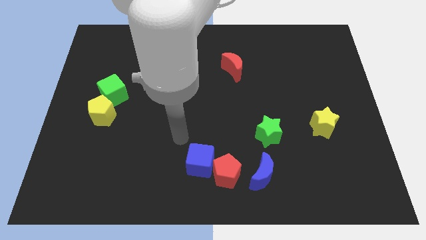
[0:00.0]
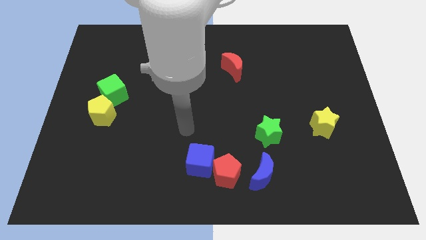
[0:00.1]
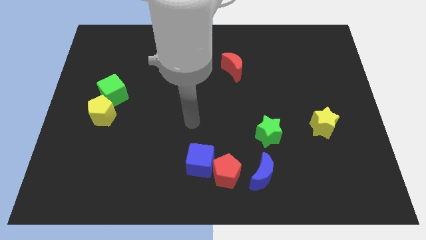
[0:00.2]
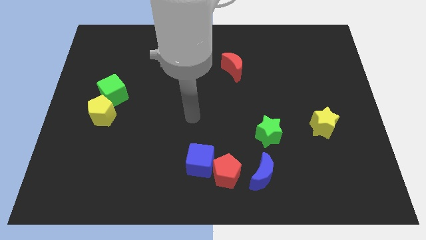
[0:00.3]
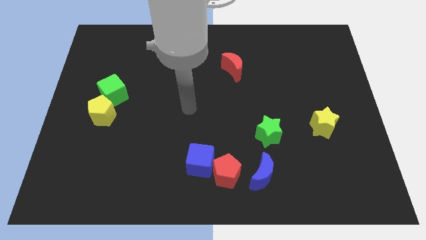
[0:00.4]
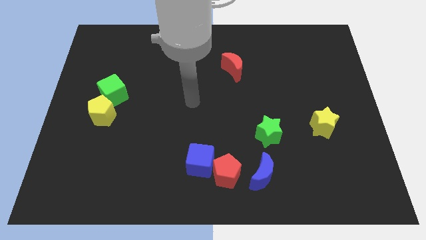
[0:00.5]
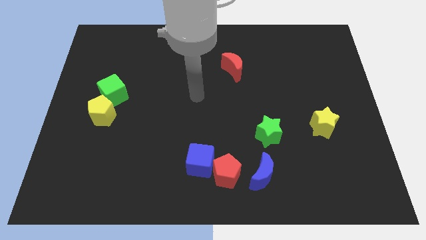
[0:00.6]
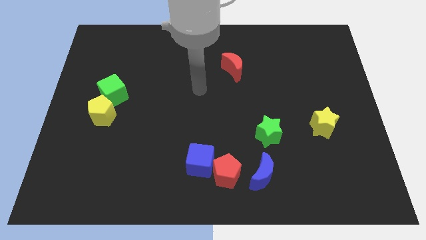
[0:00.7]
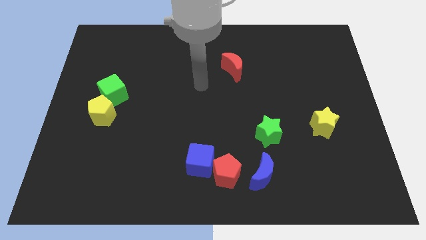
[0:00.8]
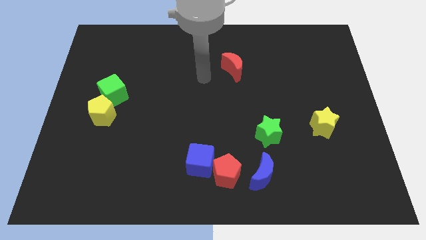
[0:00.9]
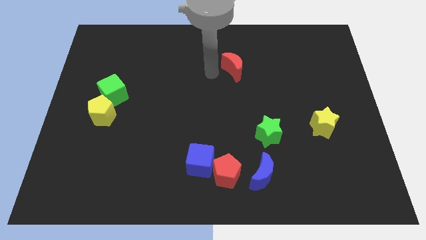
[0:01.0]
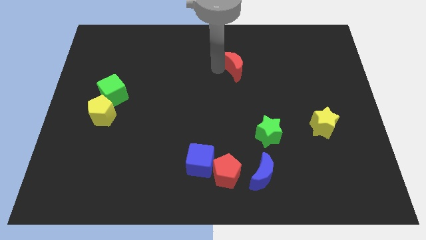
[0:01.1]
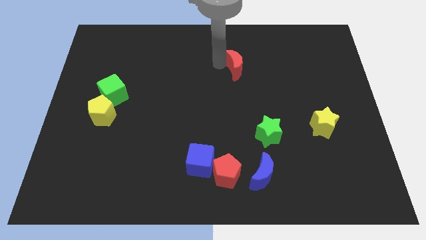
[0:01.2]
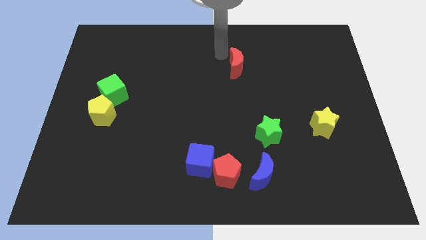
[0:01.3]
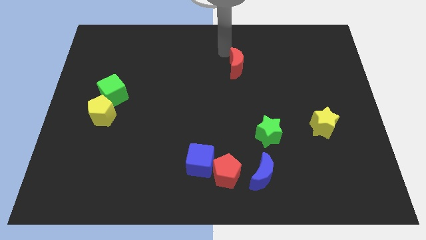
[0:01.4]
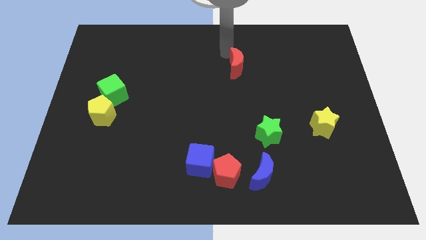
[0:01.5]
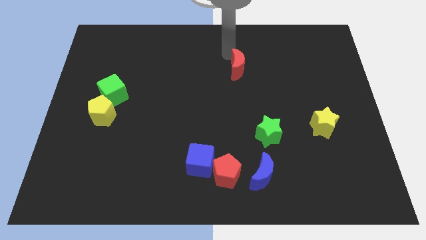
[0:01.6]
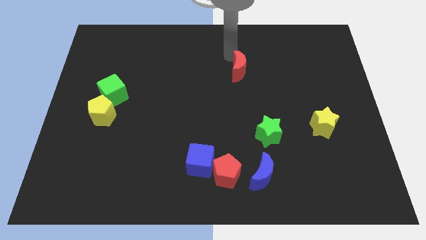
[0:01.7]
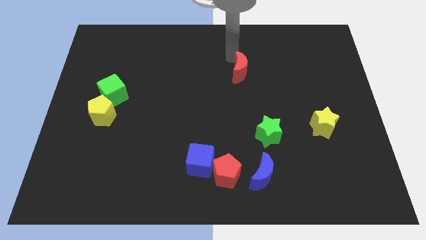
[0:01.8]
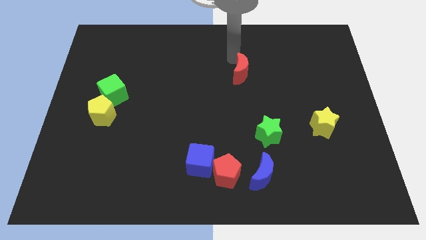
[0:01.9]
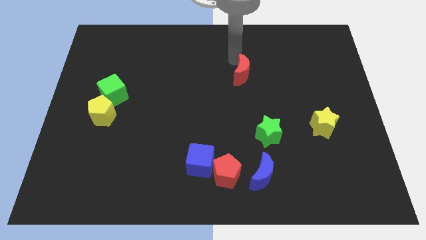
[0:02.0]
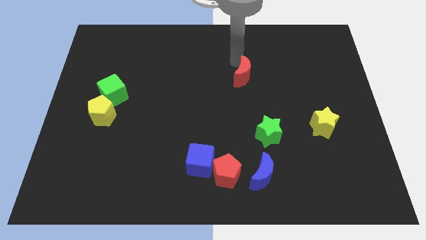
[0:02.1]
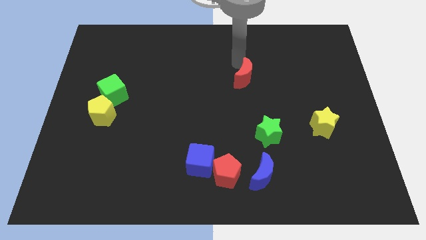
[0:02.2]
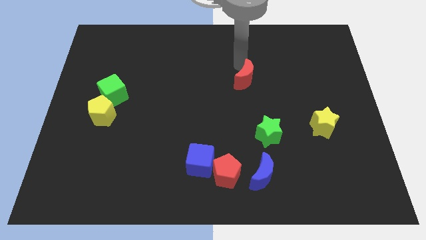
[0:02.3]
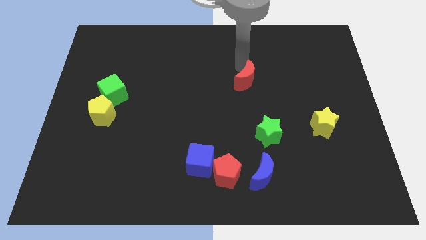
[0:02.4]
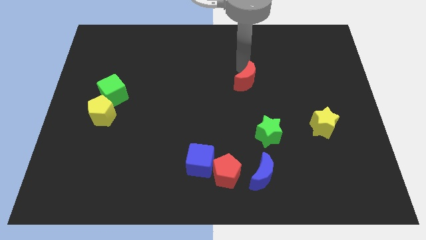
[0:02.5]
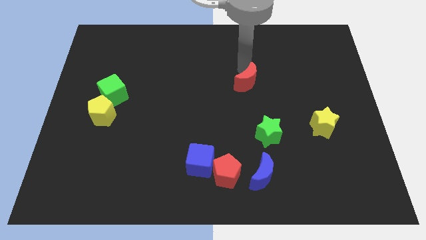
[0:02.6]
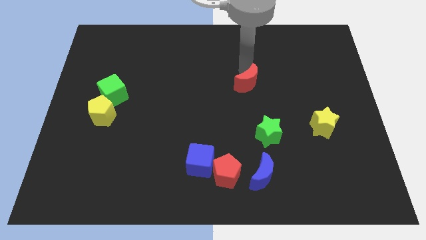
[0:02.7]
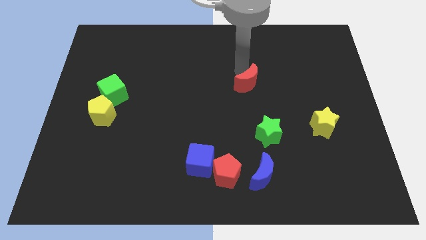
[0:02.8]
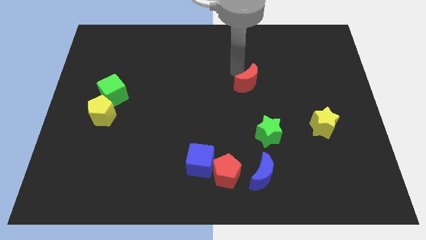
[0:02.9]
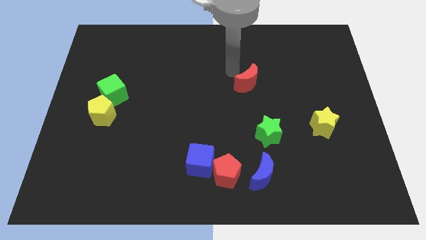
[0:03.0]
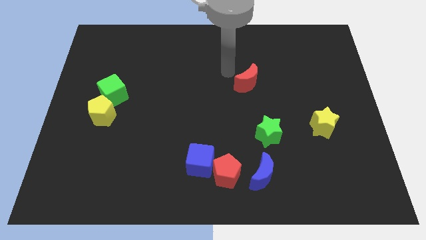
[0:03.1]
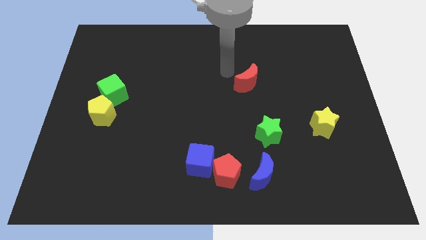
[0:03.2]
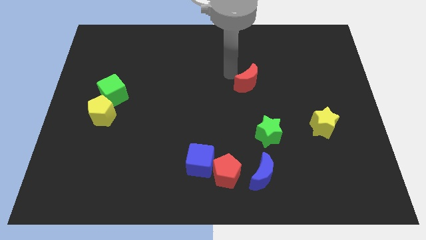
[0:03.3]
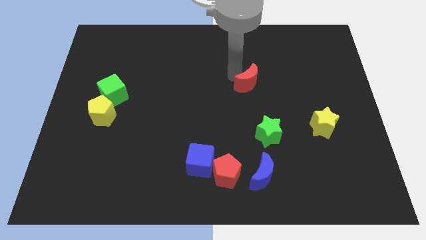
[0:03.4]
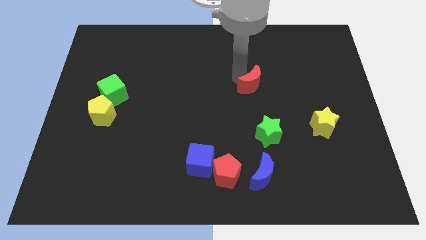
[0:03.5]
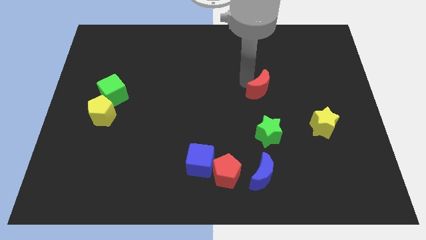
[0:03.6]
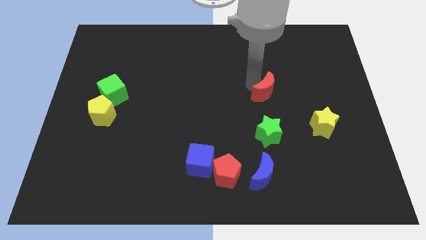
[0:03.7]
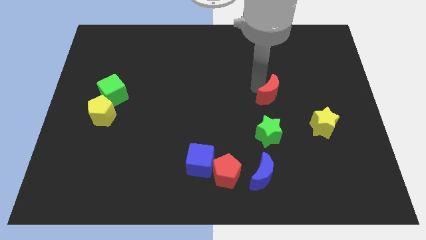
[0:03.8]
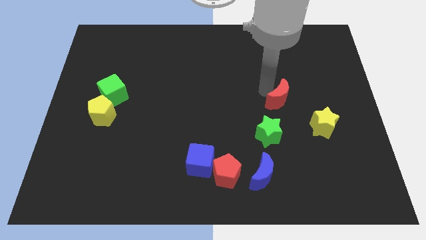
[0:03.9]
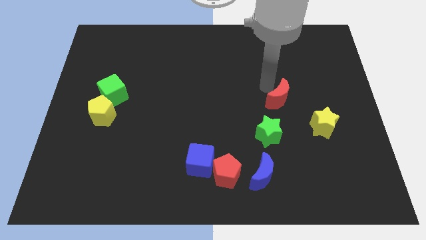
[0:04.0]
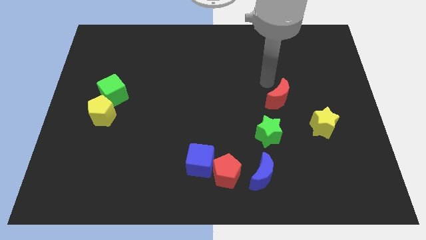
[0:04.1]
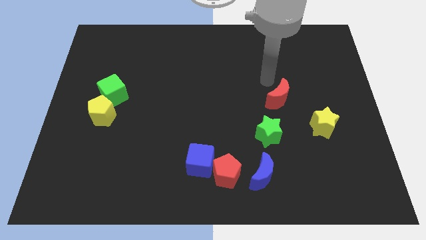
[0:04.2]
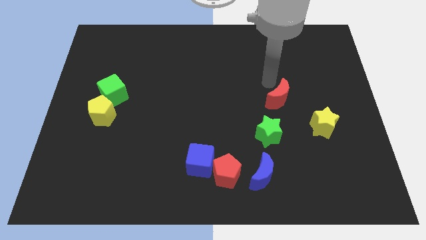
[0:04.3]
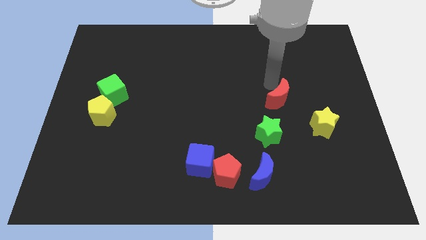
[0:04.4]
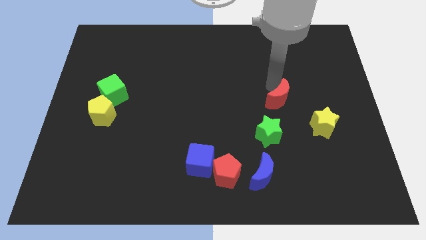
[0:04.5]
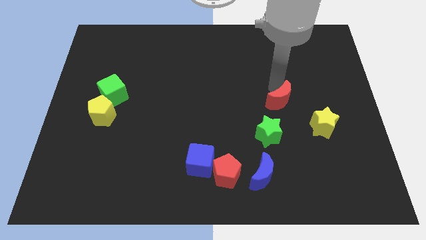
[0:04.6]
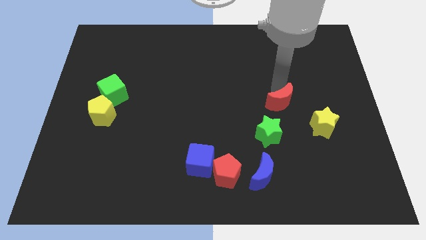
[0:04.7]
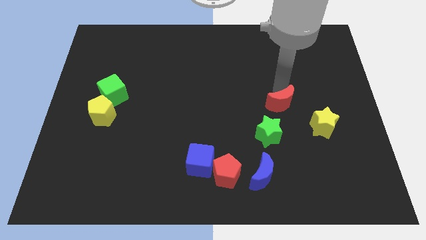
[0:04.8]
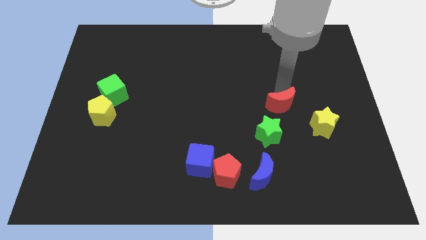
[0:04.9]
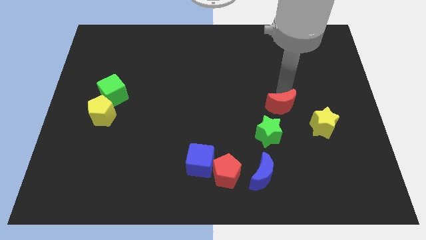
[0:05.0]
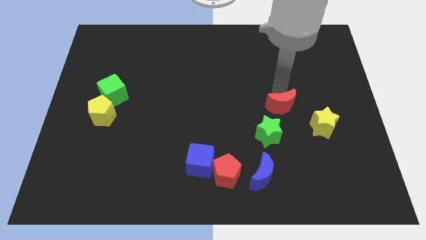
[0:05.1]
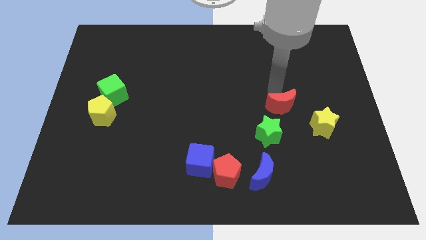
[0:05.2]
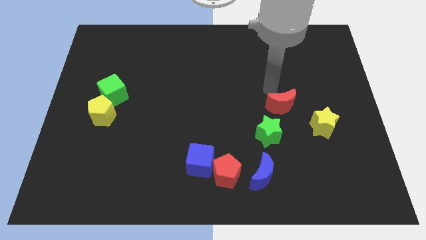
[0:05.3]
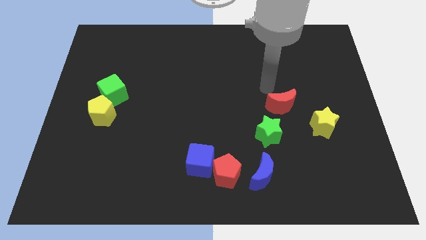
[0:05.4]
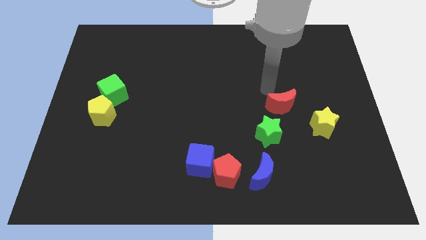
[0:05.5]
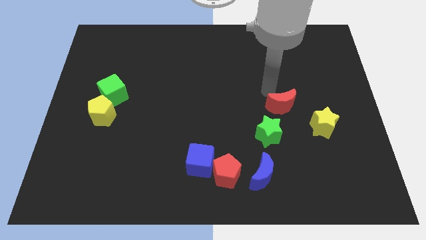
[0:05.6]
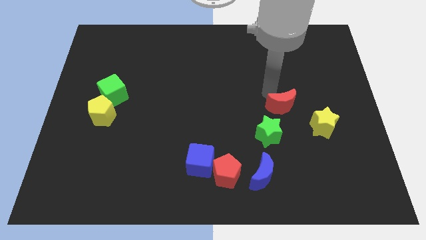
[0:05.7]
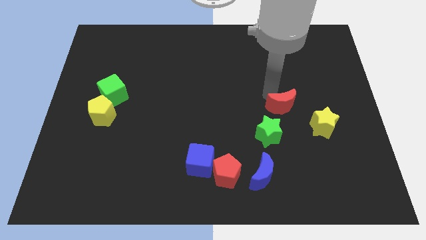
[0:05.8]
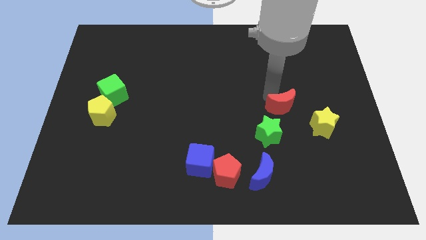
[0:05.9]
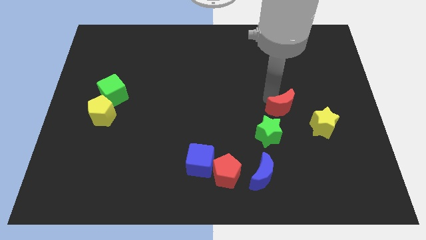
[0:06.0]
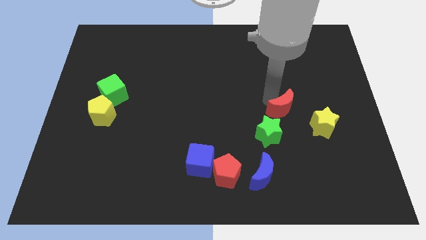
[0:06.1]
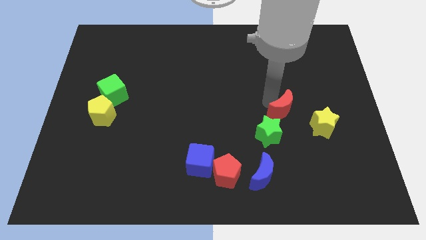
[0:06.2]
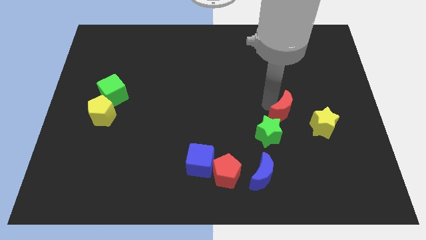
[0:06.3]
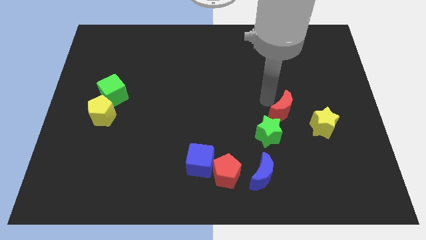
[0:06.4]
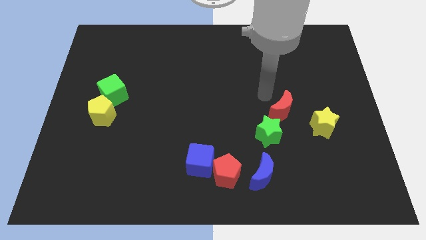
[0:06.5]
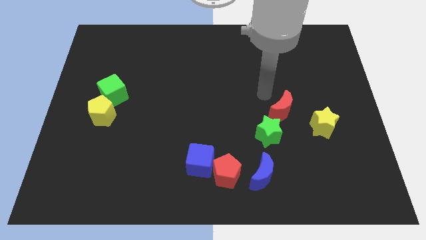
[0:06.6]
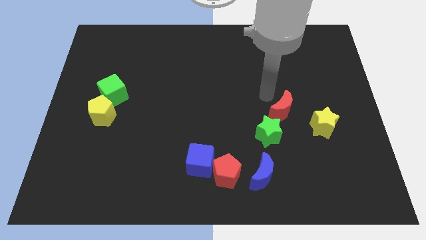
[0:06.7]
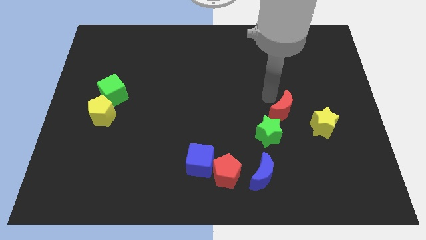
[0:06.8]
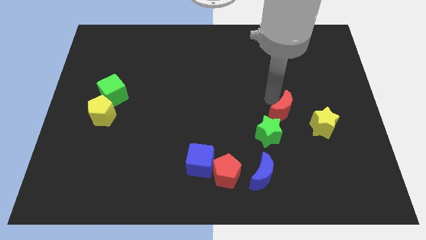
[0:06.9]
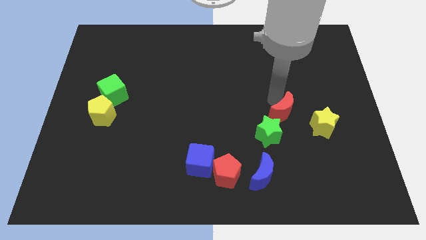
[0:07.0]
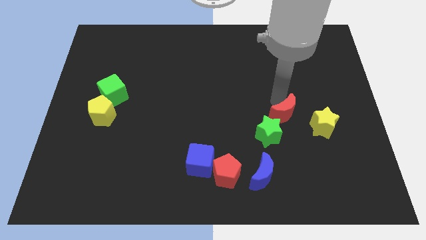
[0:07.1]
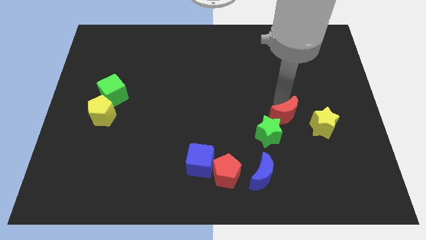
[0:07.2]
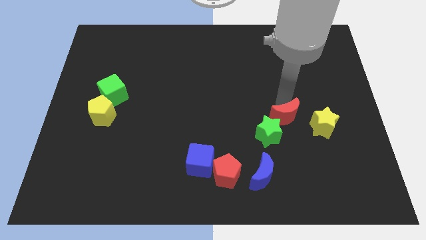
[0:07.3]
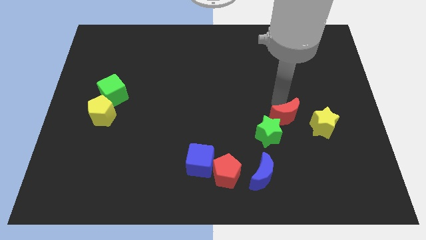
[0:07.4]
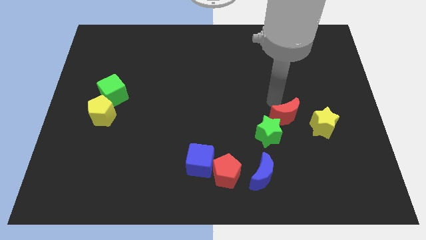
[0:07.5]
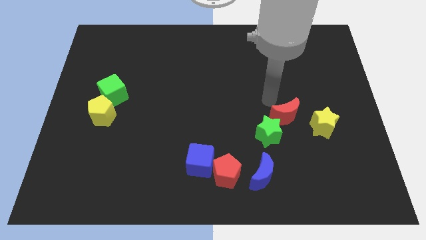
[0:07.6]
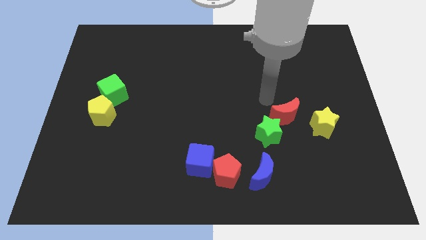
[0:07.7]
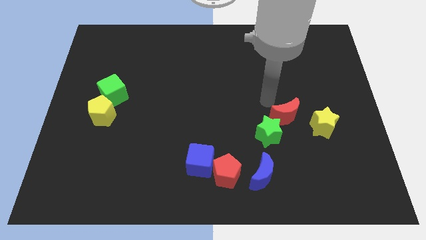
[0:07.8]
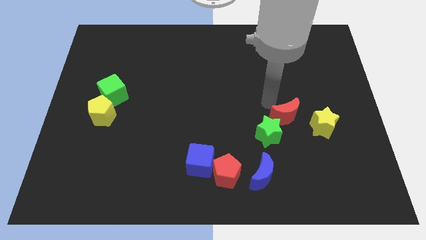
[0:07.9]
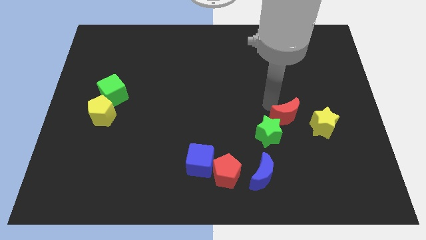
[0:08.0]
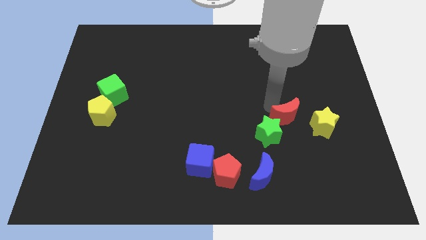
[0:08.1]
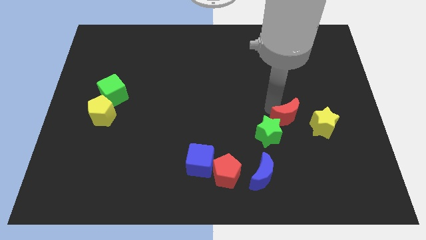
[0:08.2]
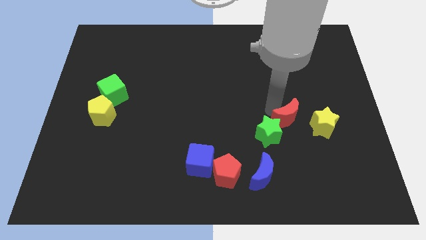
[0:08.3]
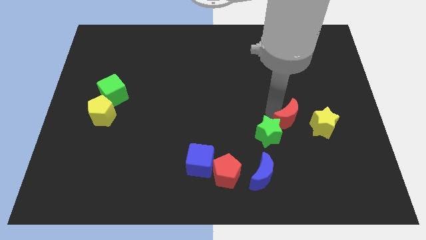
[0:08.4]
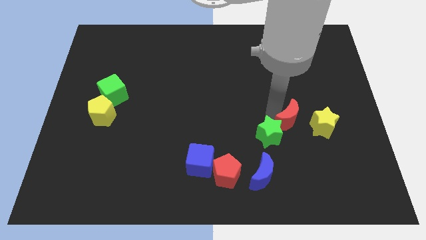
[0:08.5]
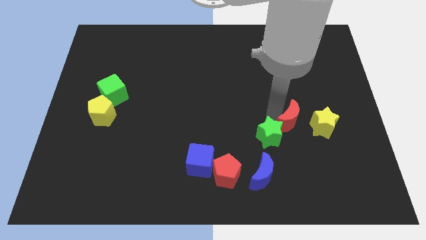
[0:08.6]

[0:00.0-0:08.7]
slide the red moon down and then to the right
